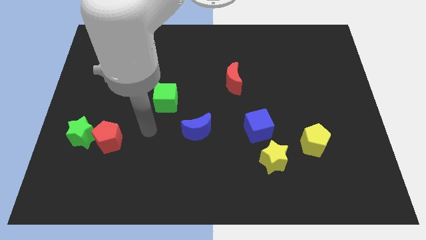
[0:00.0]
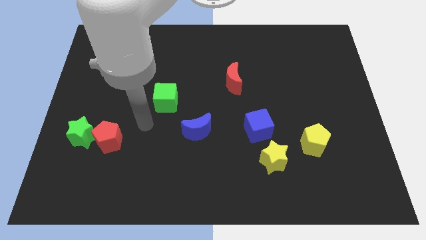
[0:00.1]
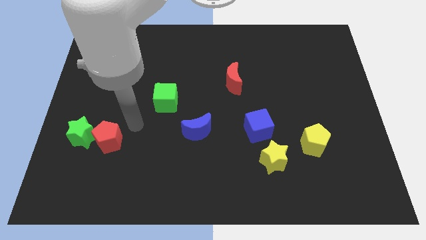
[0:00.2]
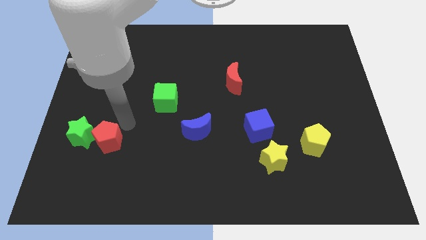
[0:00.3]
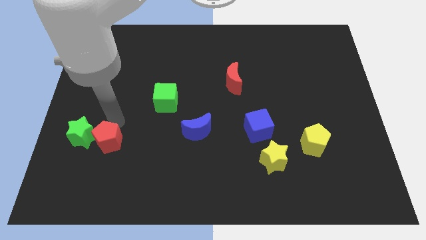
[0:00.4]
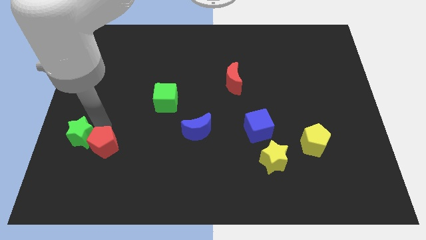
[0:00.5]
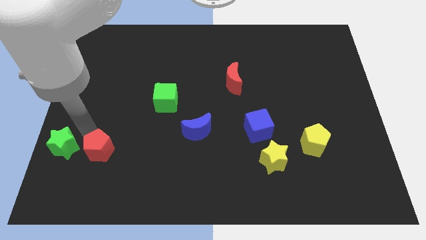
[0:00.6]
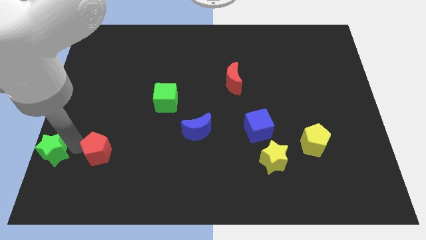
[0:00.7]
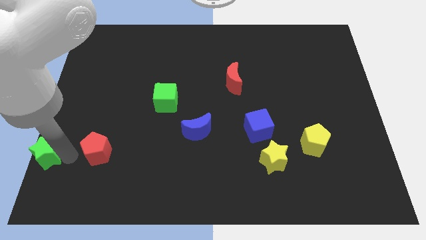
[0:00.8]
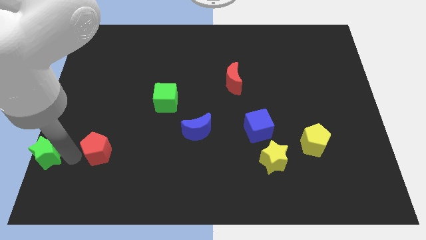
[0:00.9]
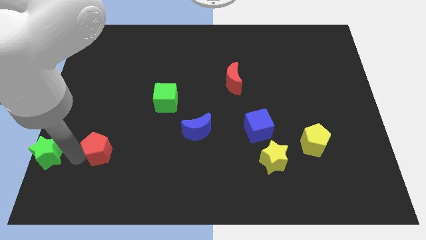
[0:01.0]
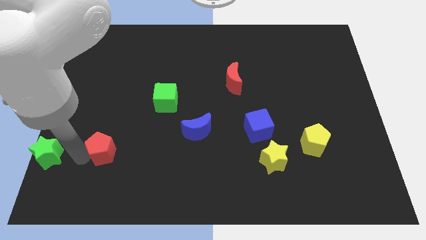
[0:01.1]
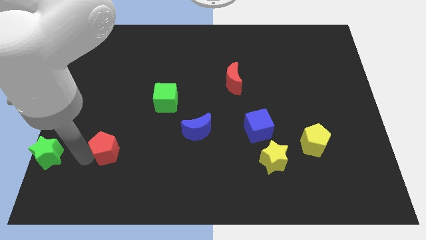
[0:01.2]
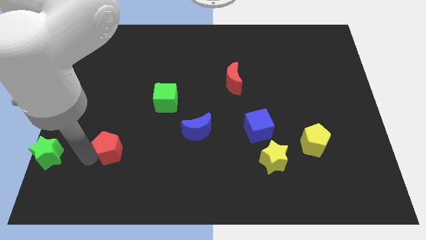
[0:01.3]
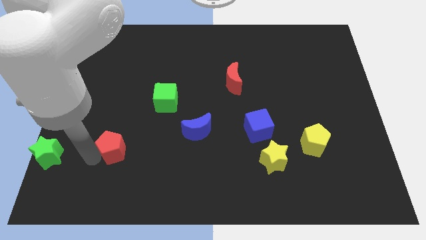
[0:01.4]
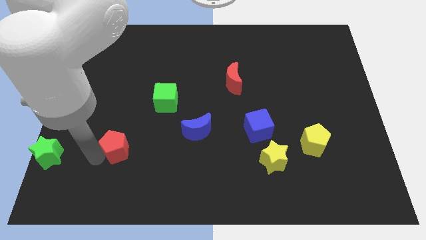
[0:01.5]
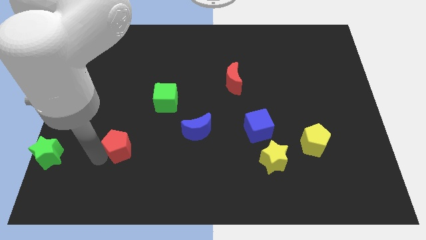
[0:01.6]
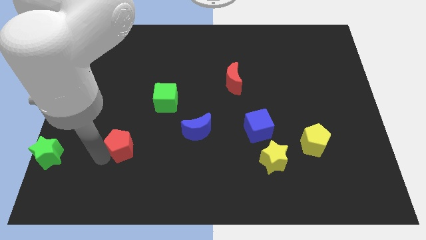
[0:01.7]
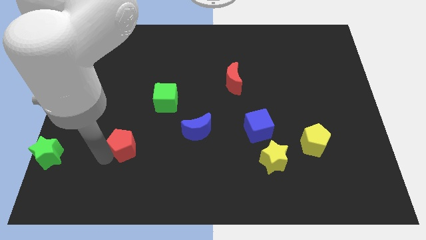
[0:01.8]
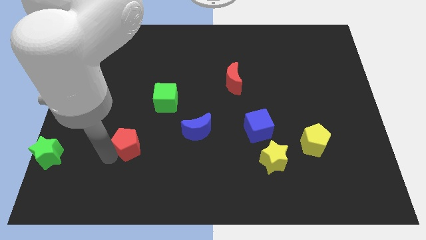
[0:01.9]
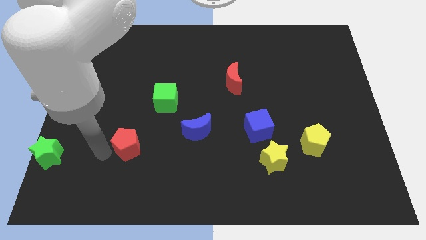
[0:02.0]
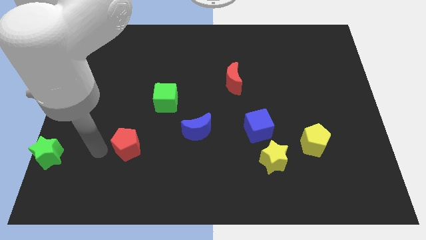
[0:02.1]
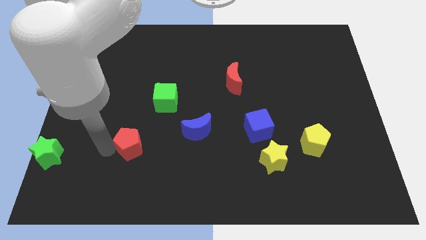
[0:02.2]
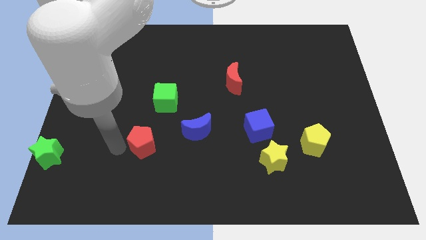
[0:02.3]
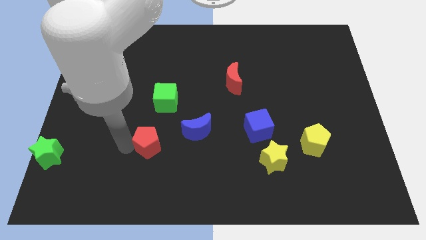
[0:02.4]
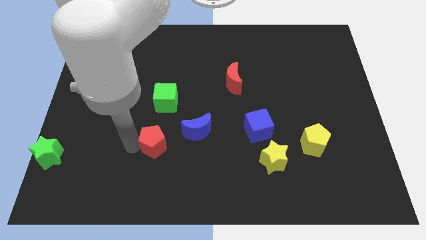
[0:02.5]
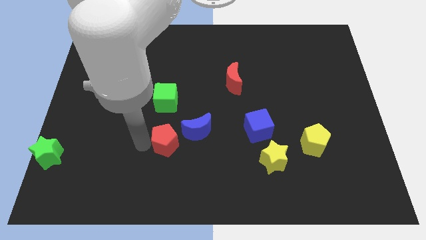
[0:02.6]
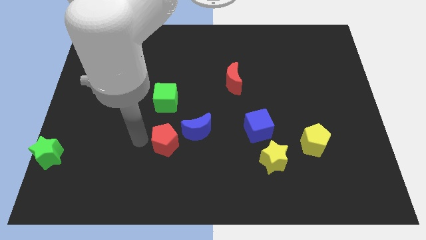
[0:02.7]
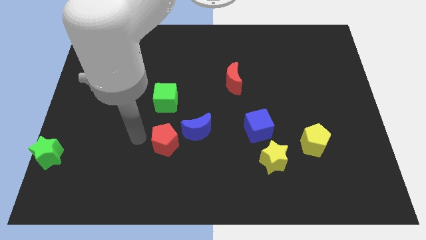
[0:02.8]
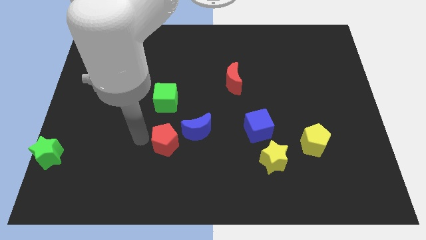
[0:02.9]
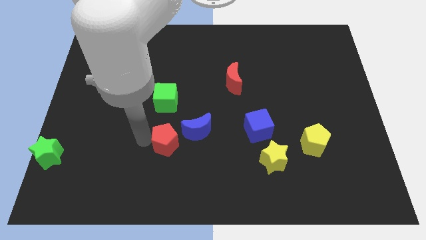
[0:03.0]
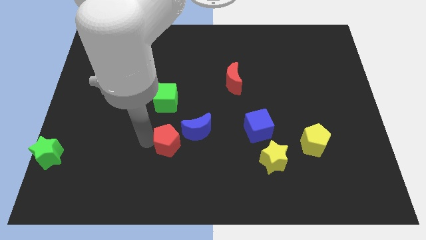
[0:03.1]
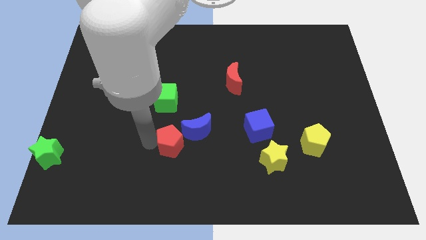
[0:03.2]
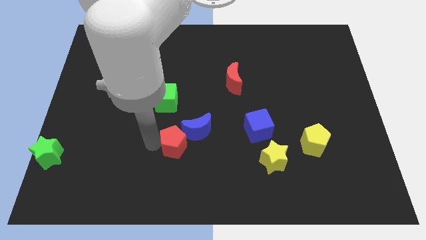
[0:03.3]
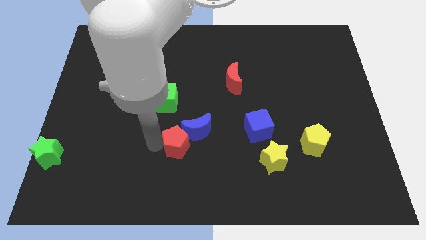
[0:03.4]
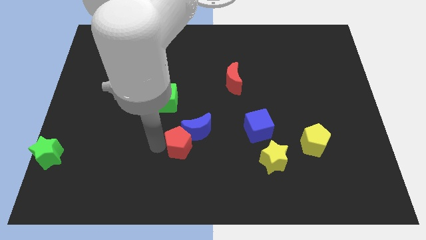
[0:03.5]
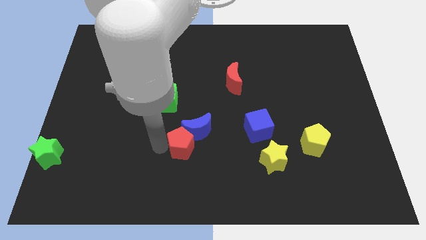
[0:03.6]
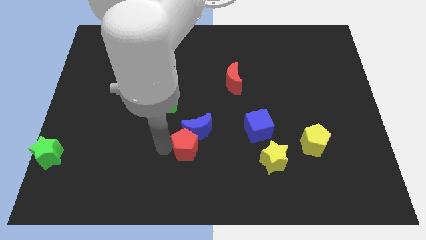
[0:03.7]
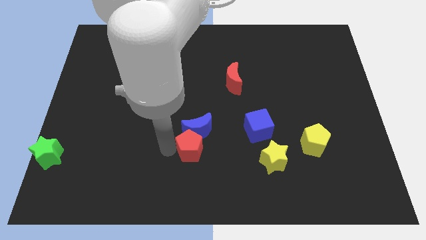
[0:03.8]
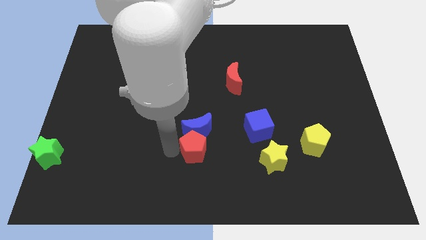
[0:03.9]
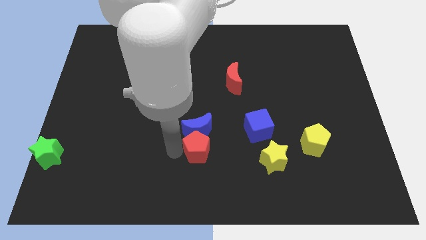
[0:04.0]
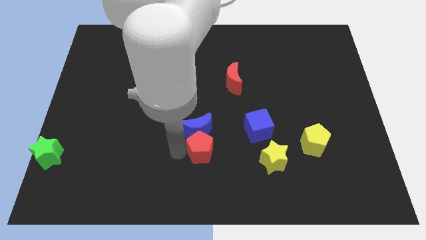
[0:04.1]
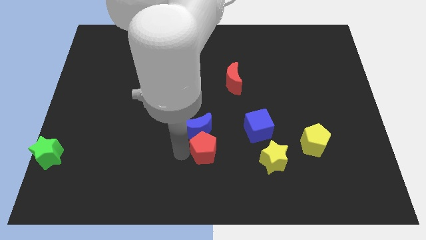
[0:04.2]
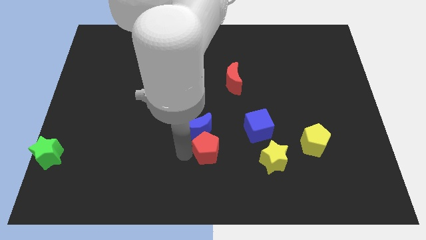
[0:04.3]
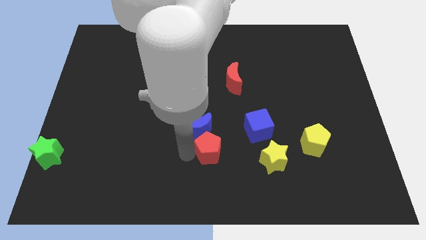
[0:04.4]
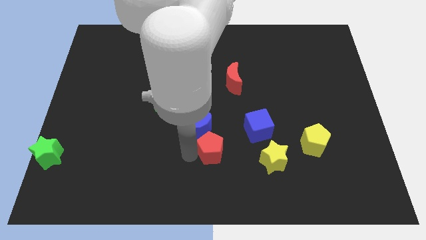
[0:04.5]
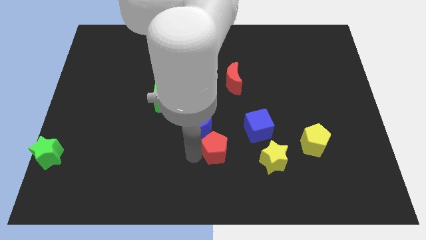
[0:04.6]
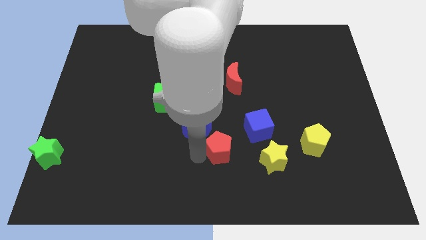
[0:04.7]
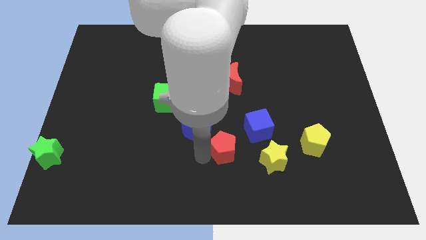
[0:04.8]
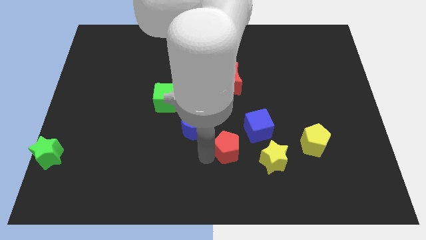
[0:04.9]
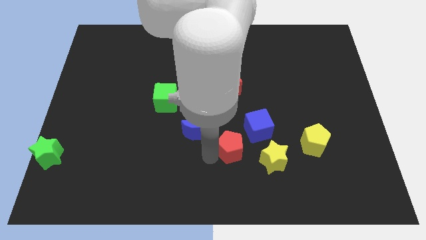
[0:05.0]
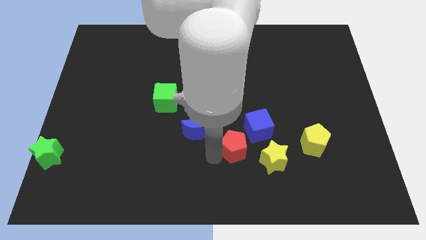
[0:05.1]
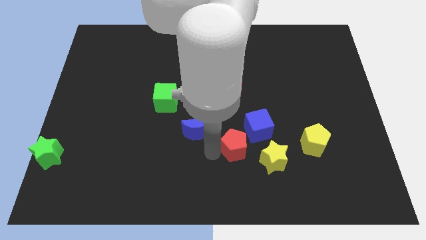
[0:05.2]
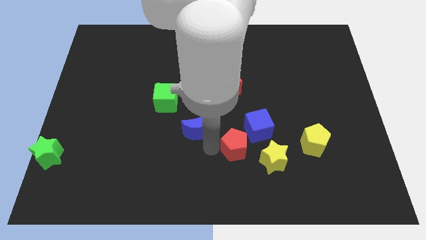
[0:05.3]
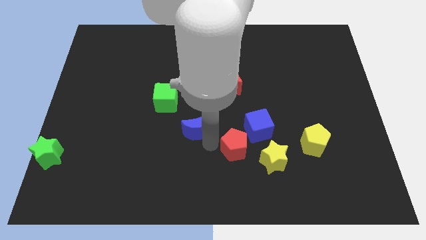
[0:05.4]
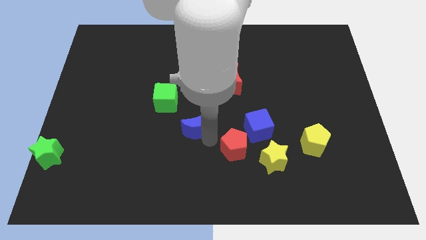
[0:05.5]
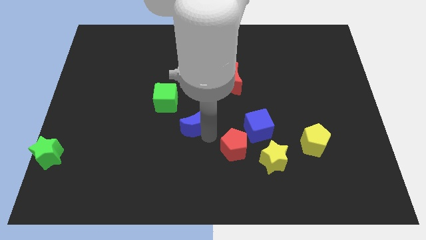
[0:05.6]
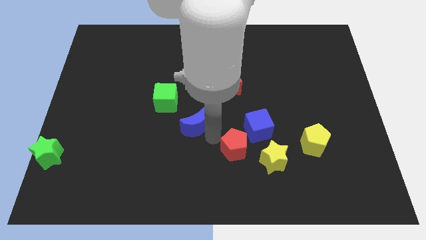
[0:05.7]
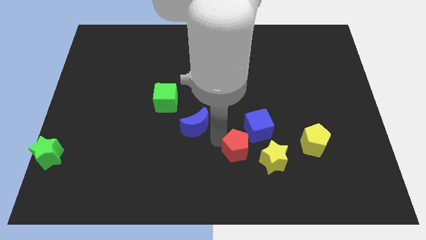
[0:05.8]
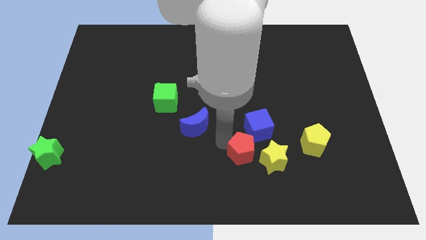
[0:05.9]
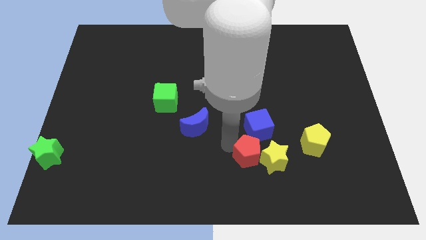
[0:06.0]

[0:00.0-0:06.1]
slide the red pentagon next to the yellow star
